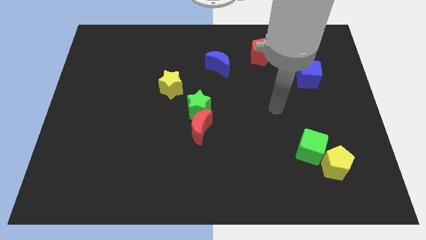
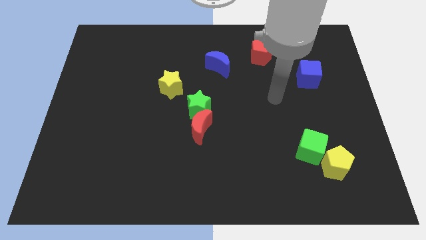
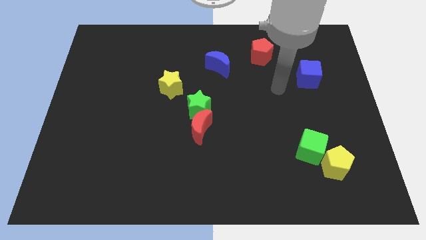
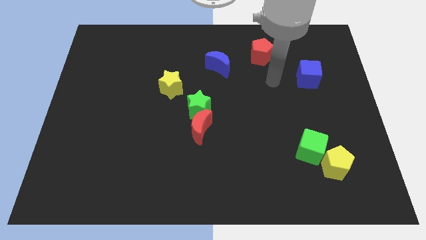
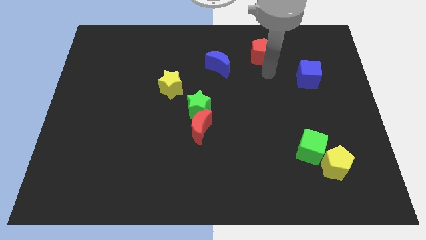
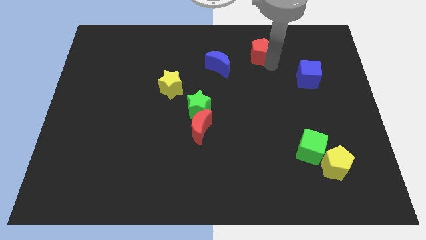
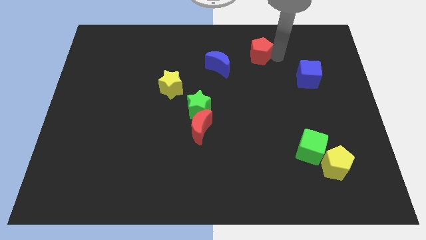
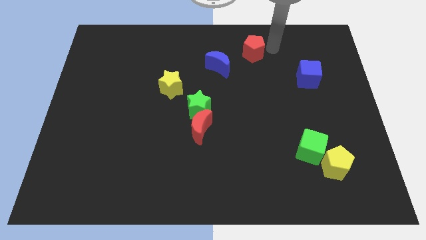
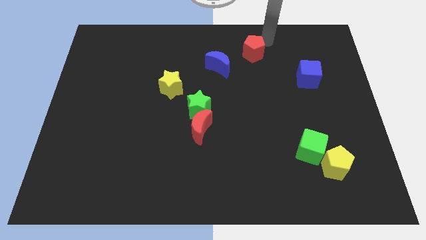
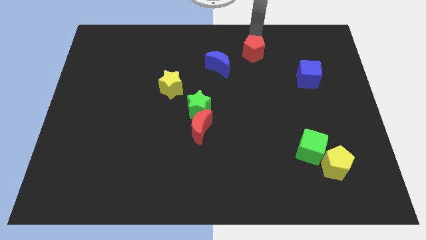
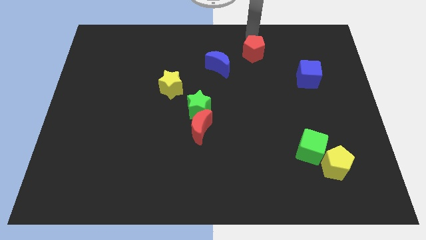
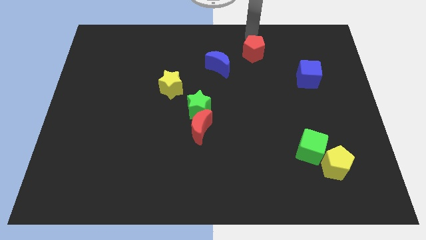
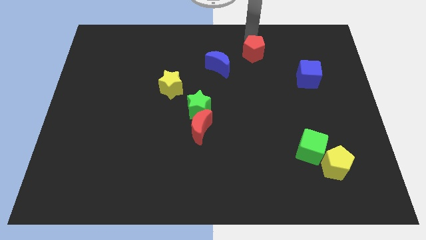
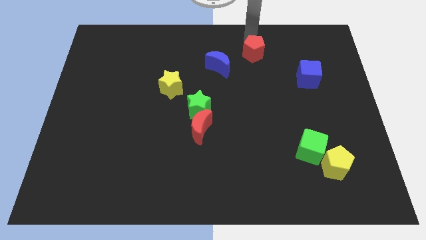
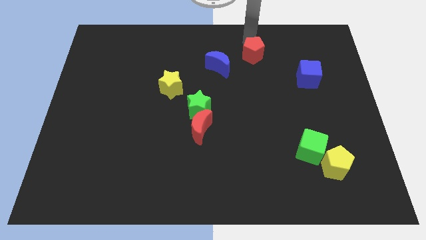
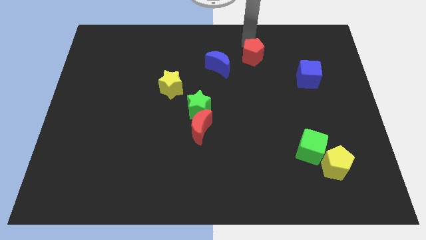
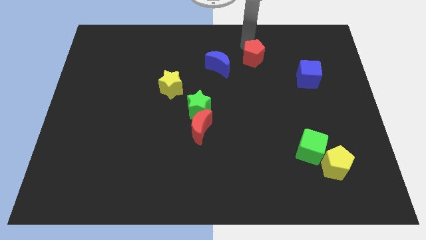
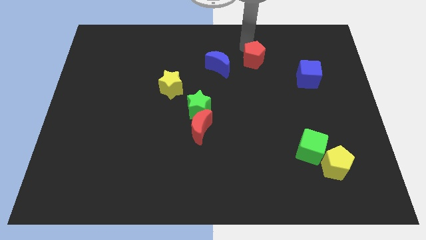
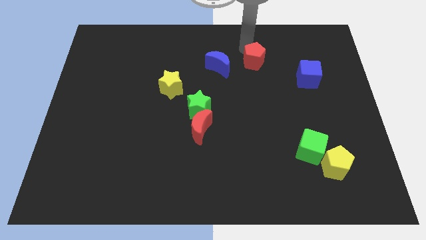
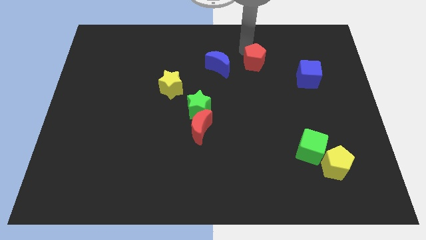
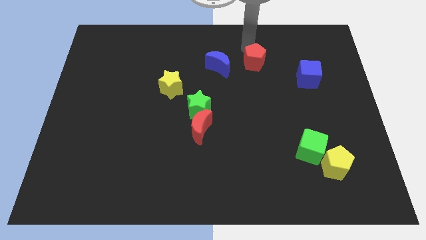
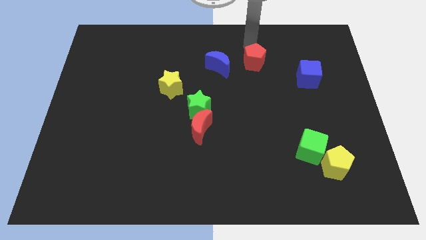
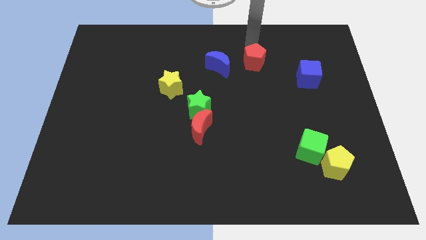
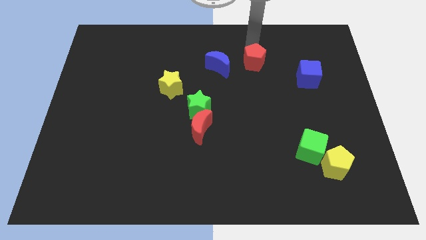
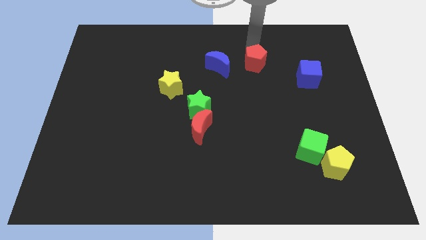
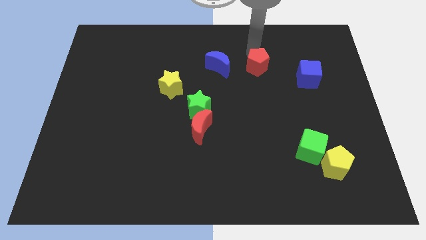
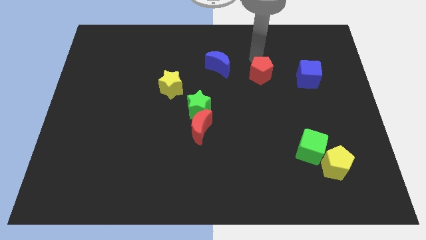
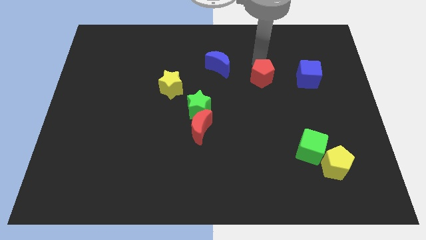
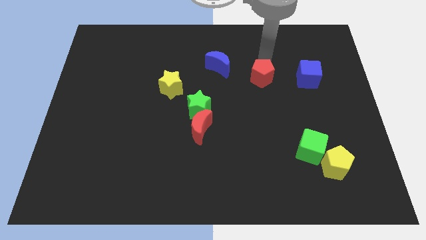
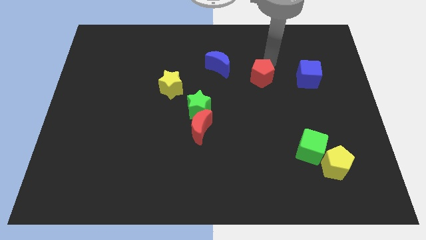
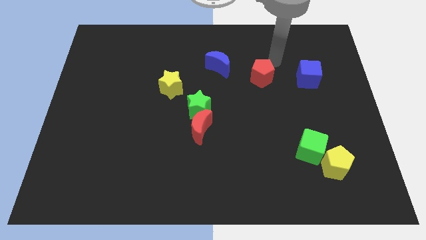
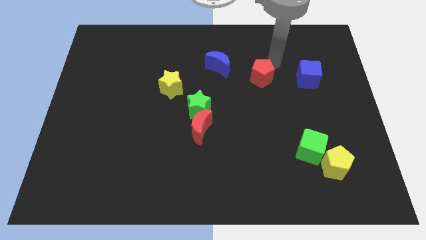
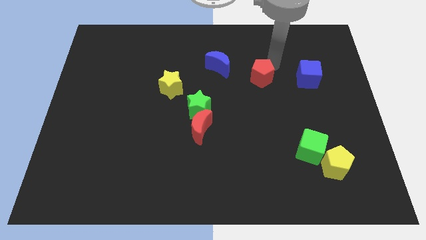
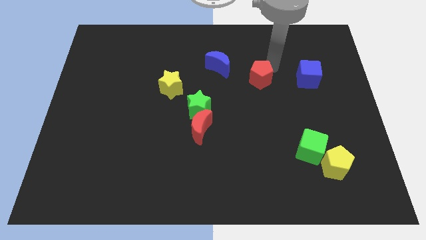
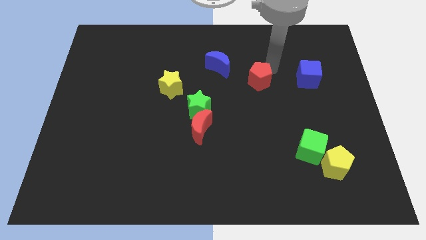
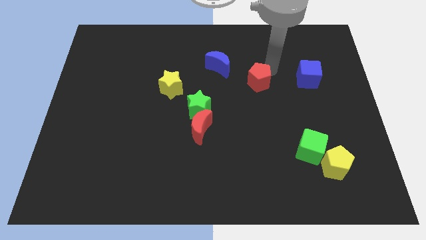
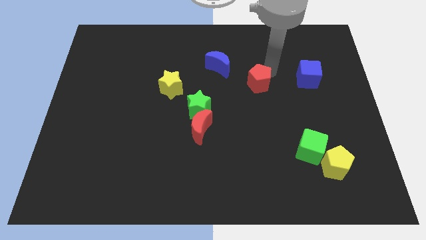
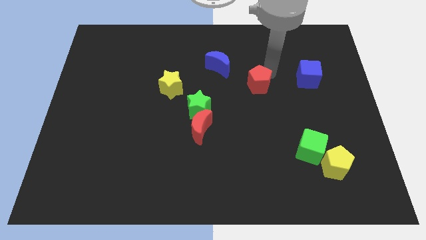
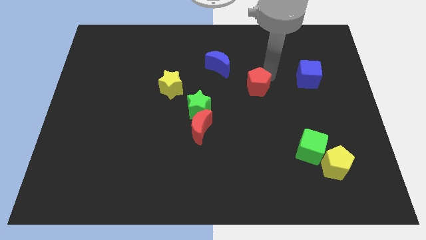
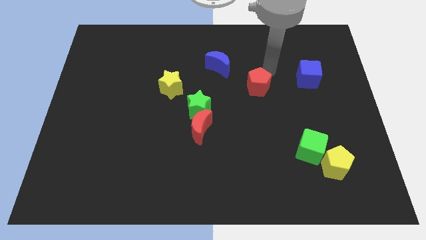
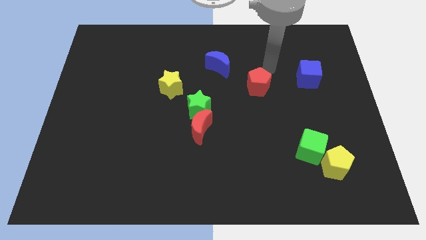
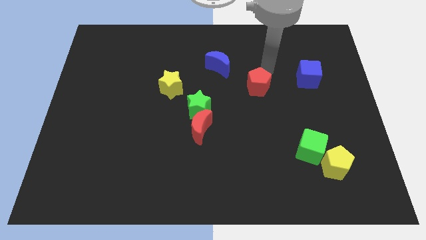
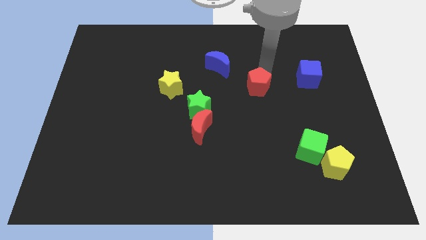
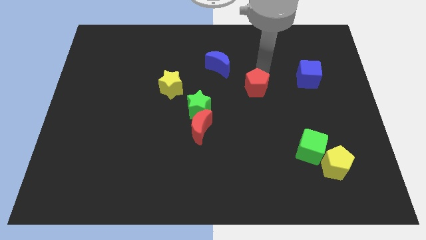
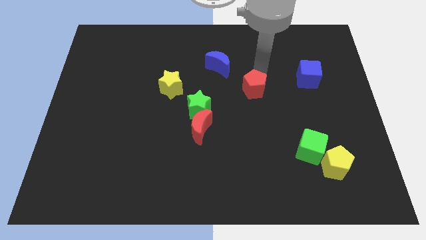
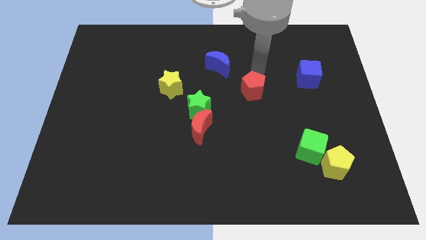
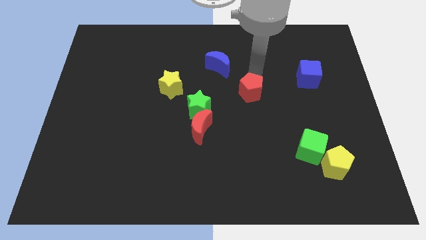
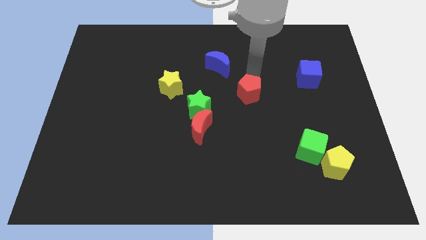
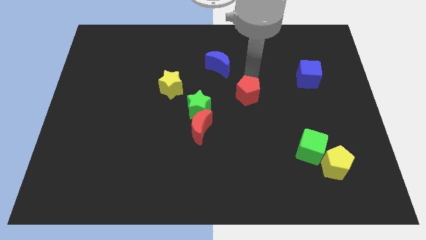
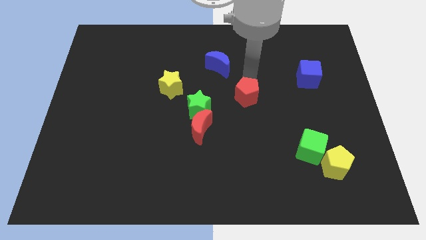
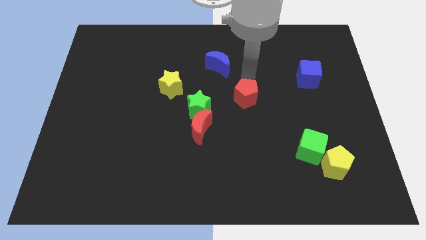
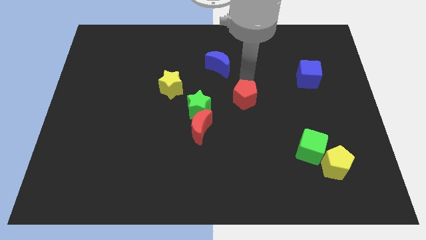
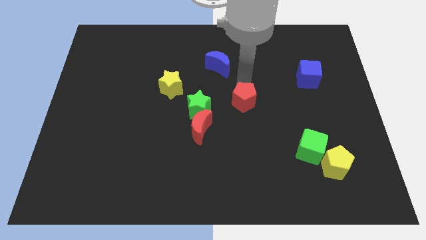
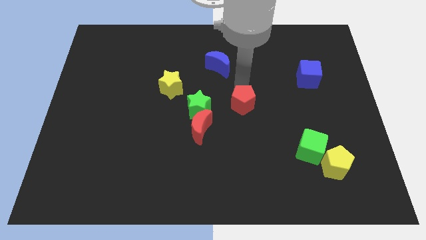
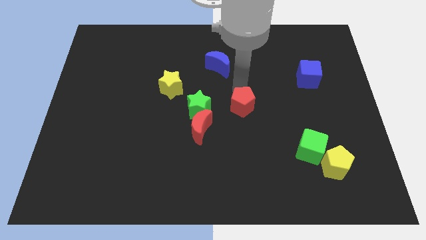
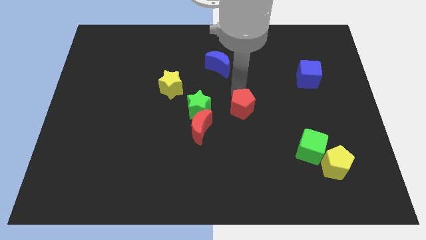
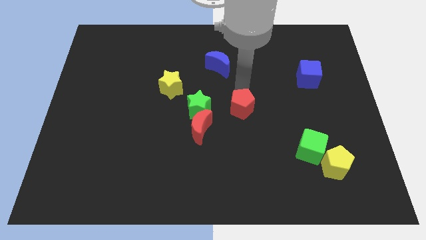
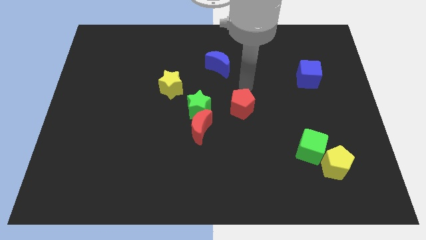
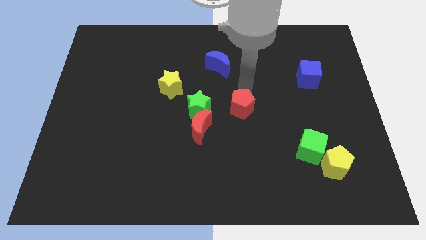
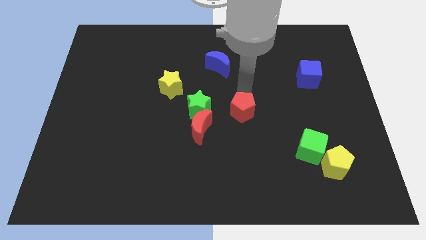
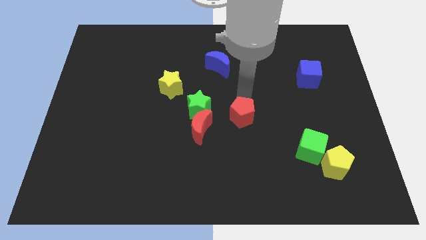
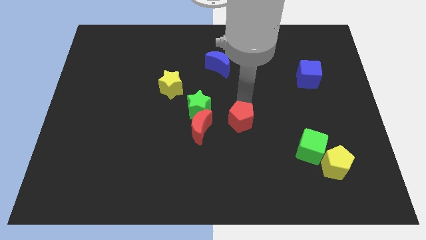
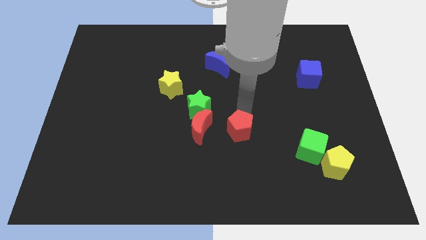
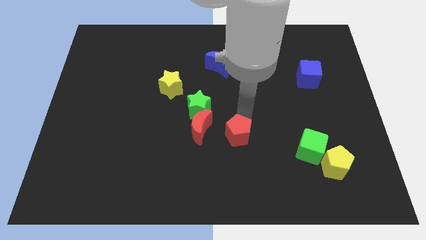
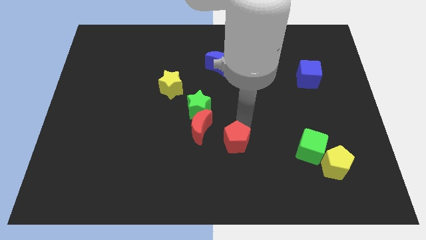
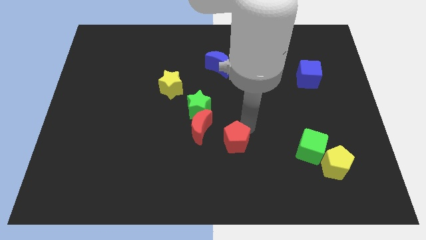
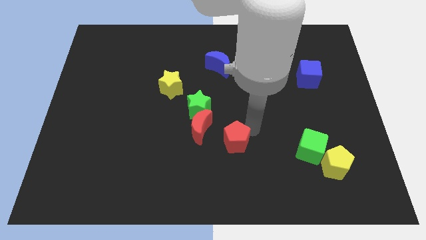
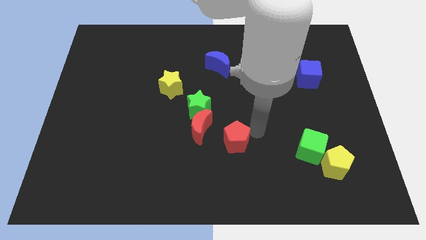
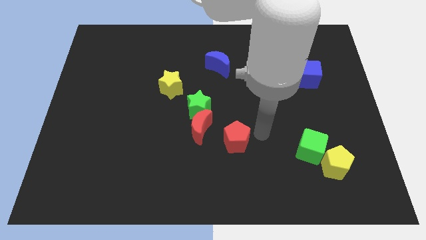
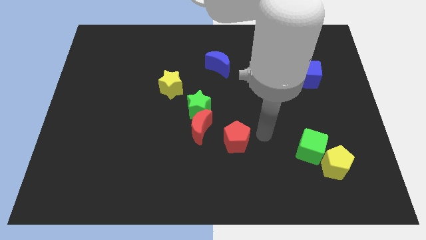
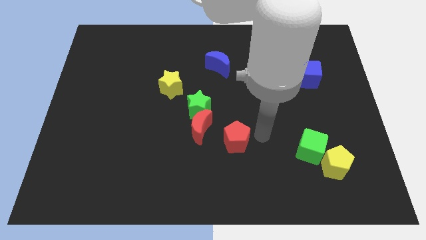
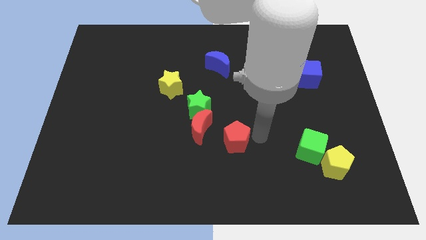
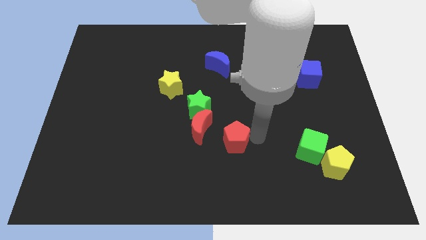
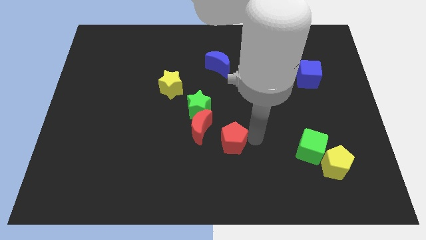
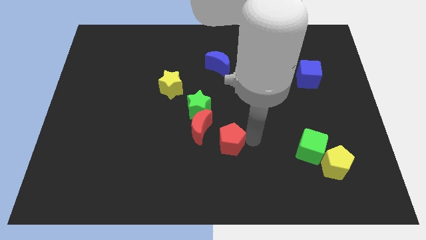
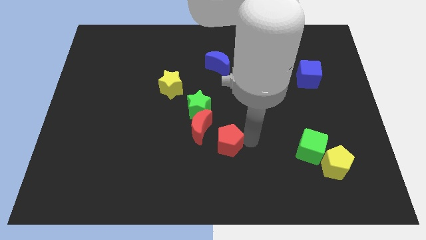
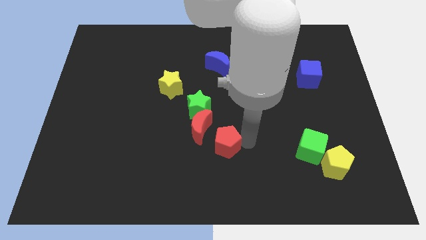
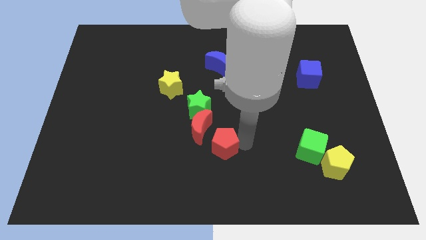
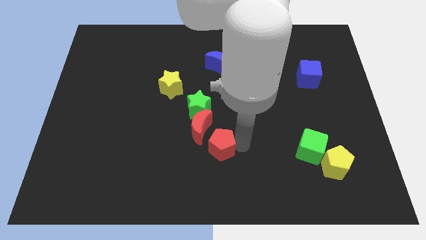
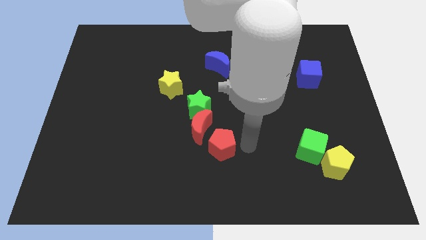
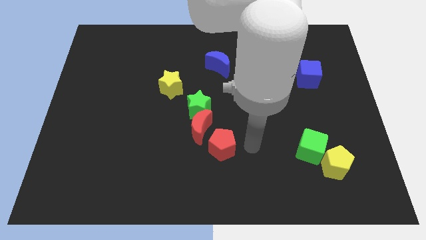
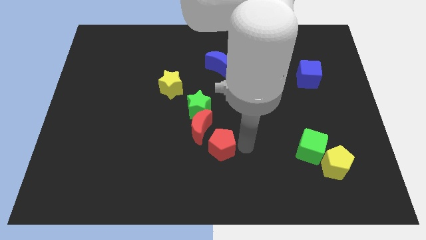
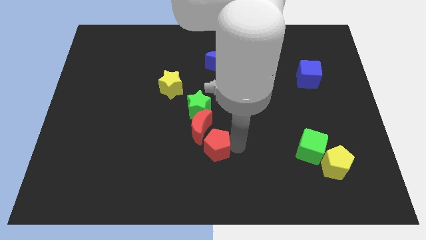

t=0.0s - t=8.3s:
slide the red pentagon to the bottom of the green star
